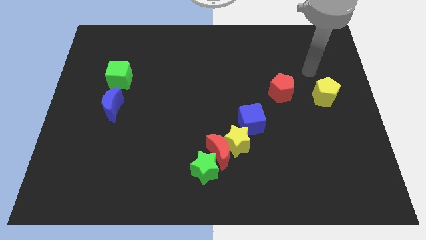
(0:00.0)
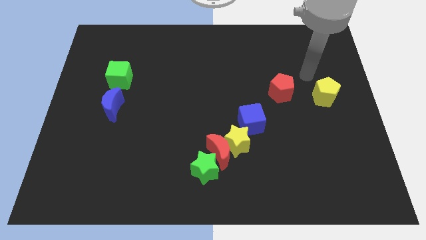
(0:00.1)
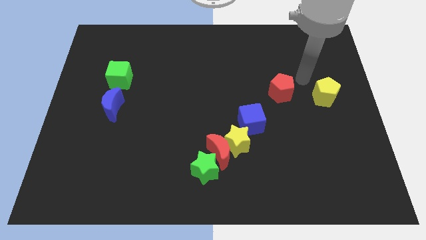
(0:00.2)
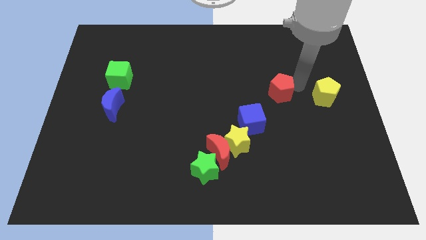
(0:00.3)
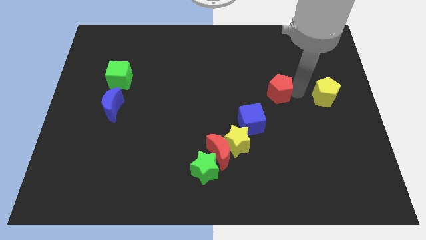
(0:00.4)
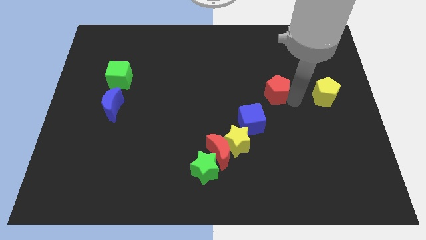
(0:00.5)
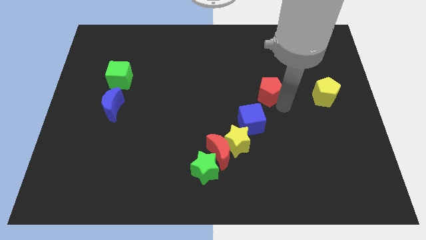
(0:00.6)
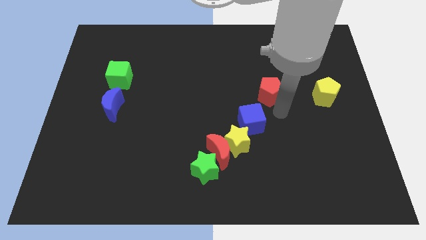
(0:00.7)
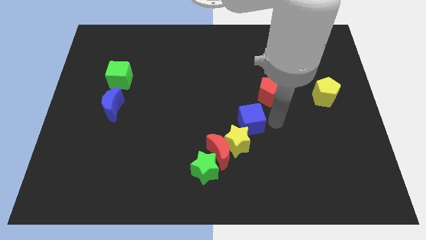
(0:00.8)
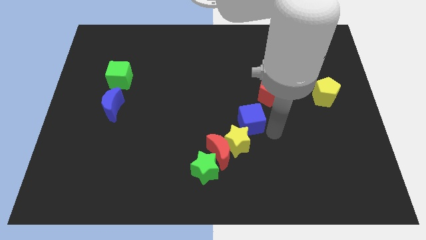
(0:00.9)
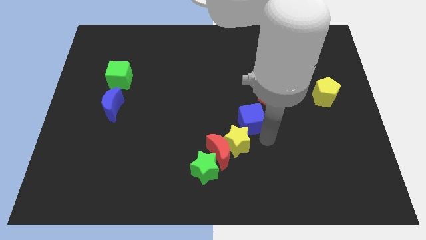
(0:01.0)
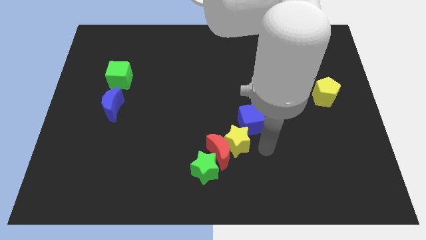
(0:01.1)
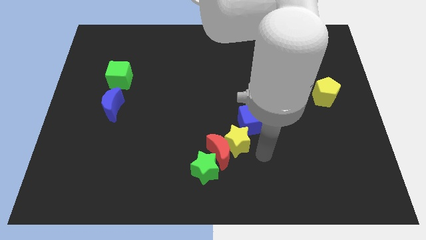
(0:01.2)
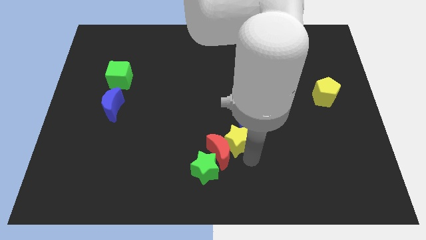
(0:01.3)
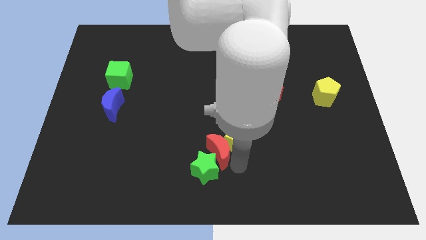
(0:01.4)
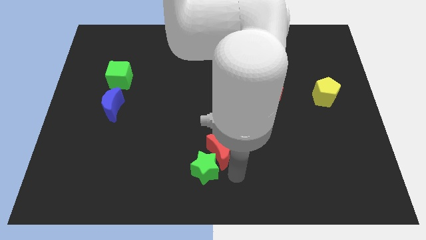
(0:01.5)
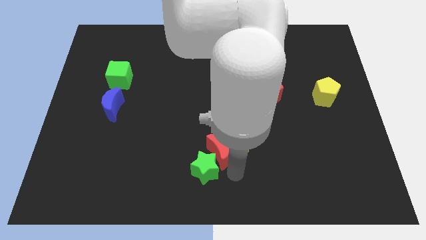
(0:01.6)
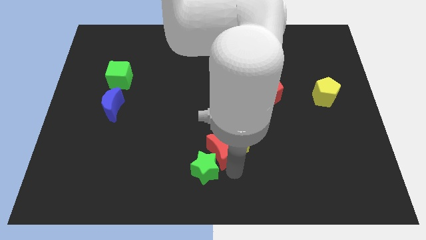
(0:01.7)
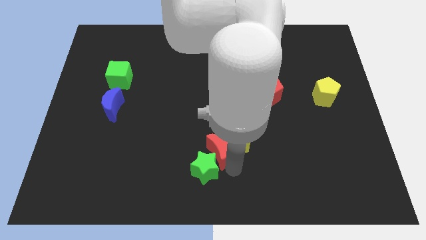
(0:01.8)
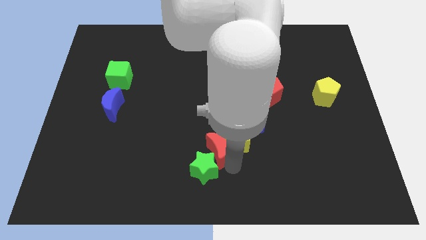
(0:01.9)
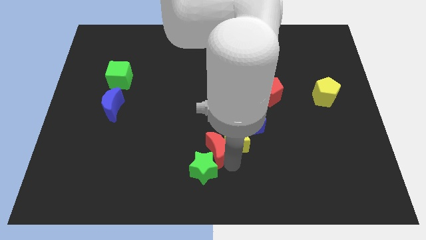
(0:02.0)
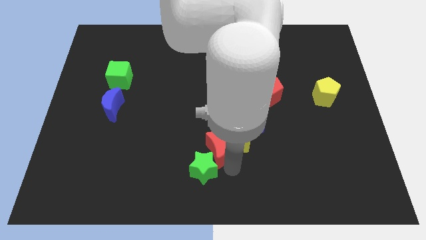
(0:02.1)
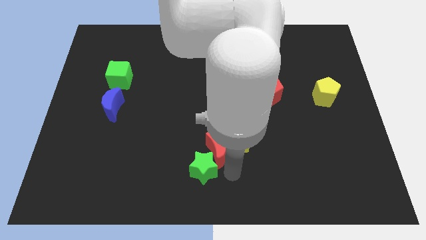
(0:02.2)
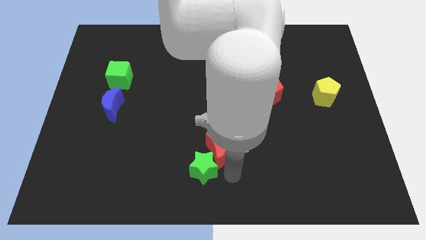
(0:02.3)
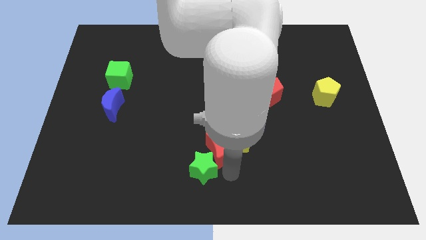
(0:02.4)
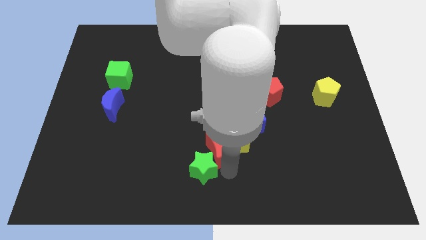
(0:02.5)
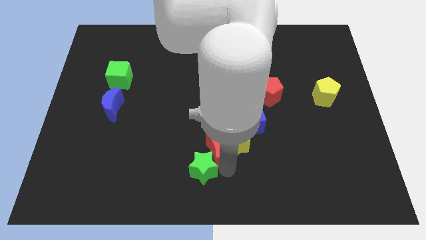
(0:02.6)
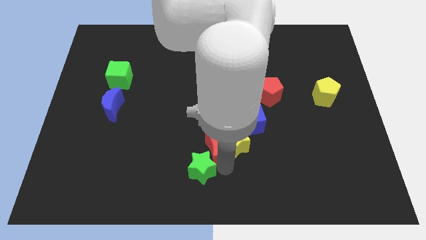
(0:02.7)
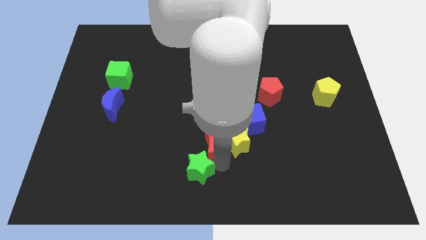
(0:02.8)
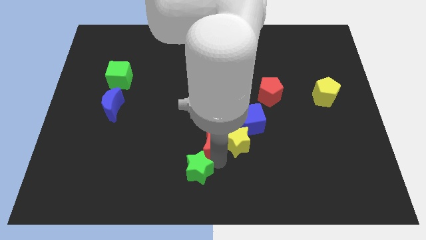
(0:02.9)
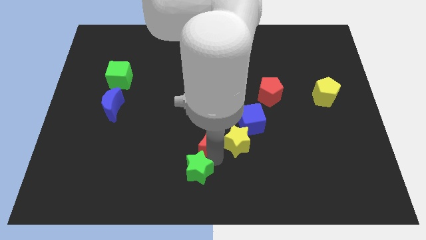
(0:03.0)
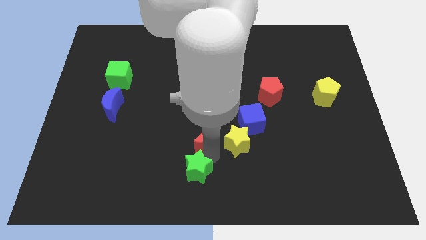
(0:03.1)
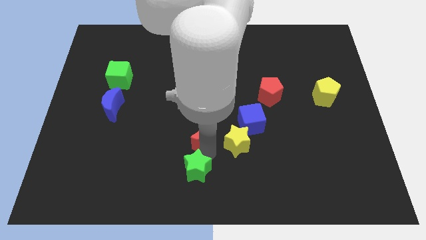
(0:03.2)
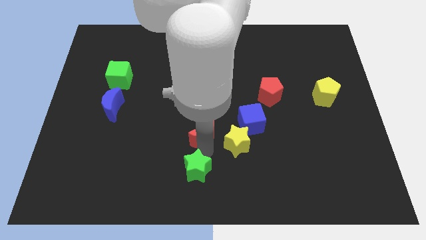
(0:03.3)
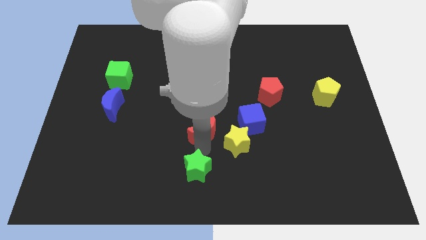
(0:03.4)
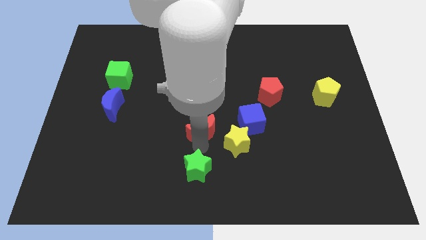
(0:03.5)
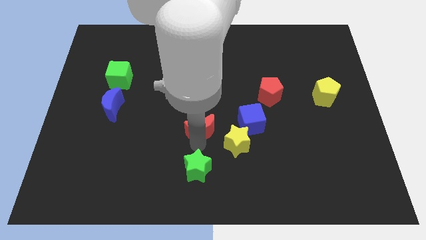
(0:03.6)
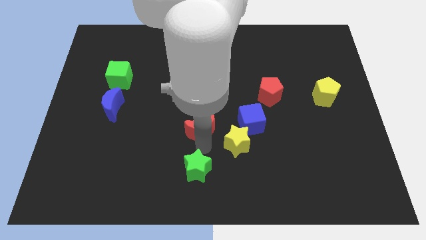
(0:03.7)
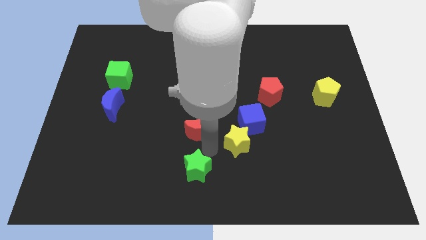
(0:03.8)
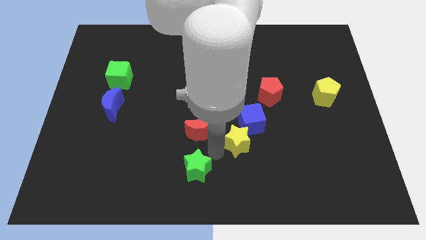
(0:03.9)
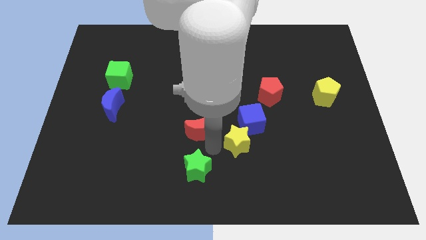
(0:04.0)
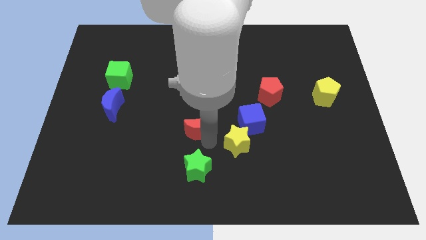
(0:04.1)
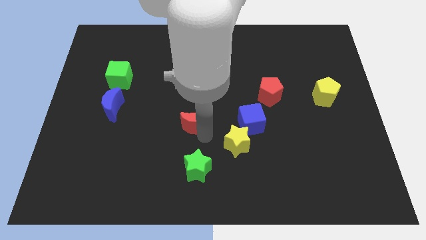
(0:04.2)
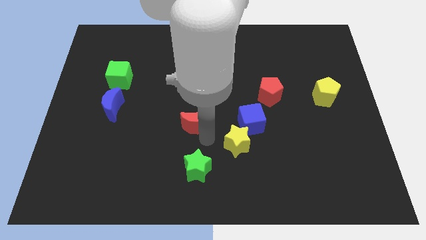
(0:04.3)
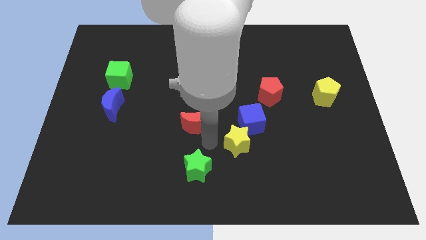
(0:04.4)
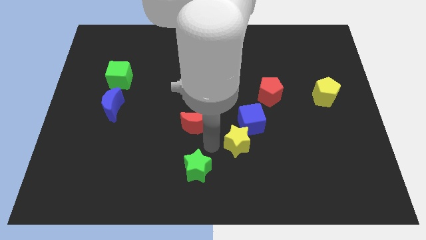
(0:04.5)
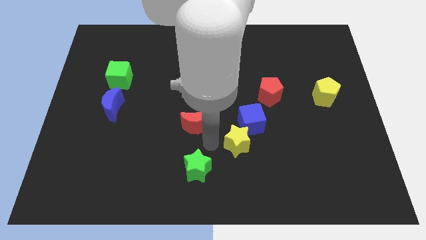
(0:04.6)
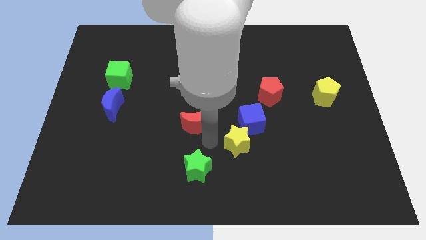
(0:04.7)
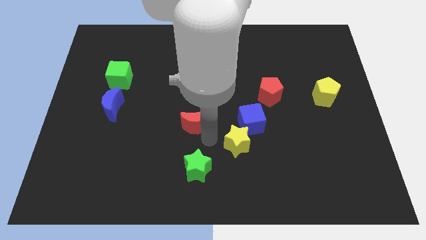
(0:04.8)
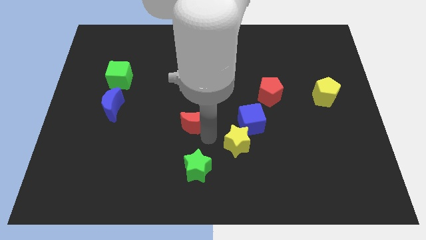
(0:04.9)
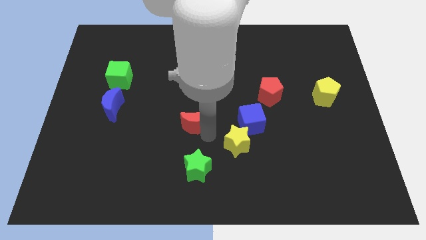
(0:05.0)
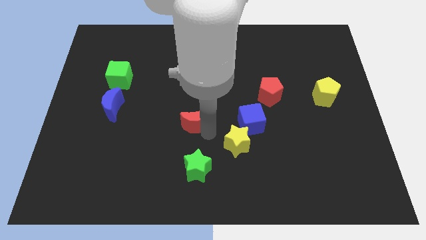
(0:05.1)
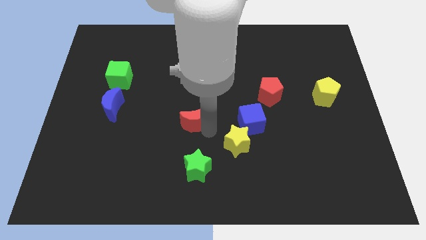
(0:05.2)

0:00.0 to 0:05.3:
pull the red moon apart from the yellow star and green star

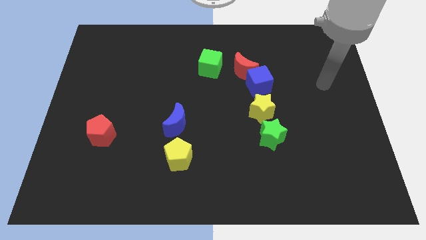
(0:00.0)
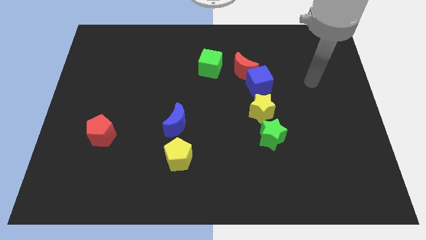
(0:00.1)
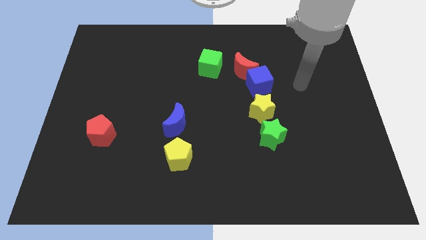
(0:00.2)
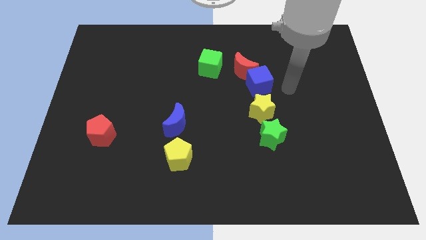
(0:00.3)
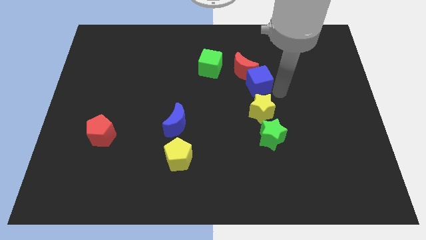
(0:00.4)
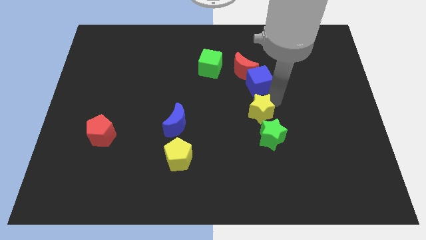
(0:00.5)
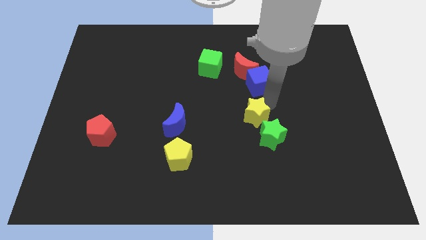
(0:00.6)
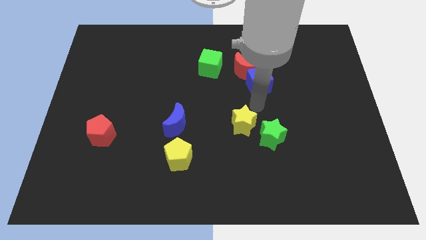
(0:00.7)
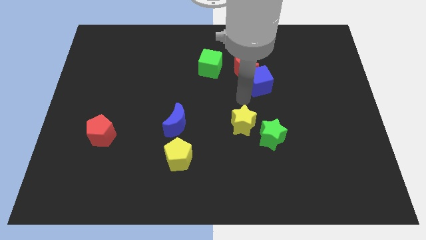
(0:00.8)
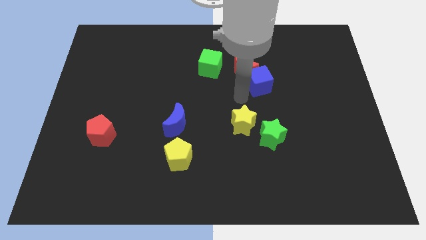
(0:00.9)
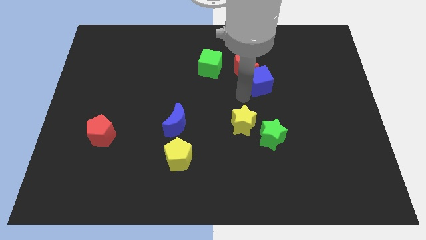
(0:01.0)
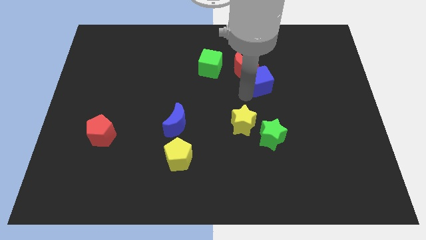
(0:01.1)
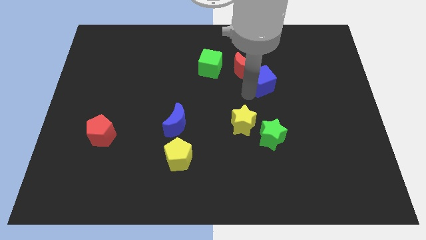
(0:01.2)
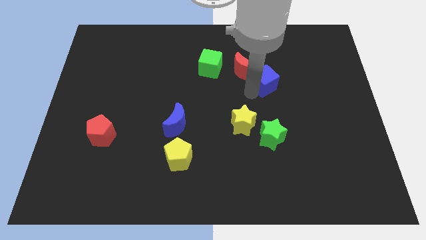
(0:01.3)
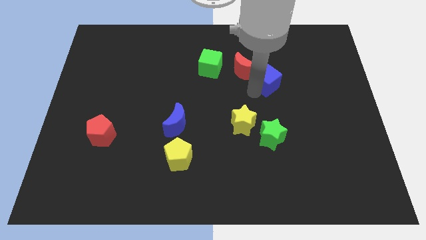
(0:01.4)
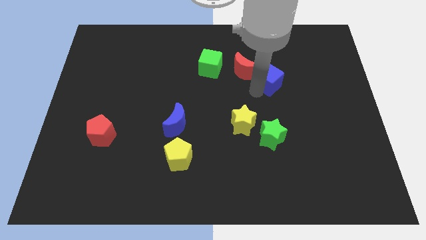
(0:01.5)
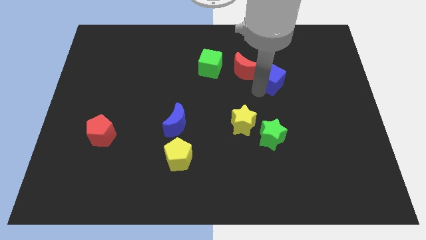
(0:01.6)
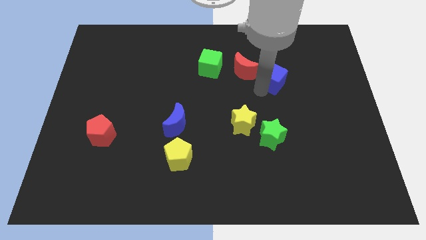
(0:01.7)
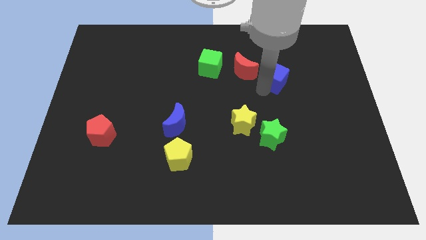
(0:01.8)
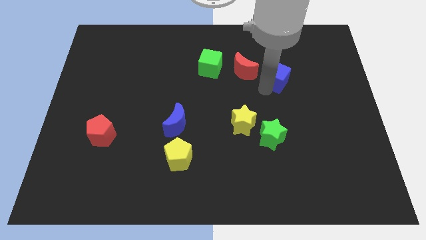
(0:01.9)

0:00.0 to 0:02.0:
move the blue cube away from the red moon and yellow star

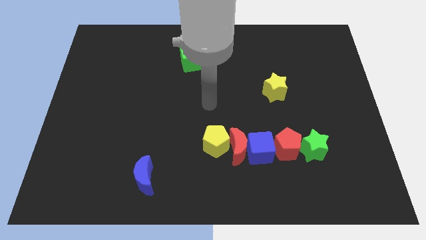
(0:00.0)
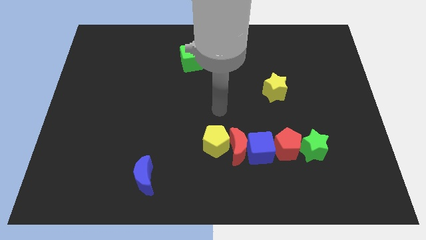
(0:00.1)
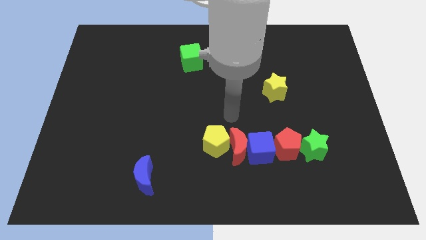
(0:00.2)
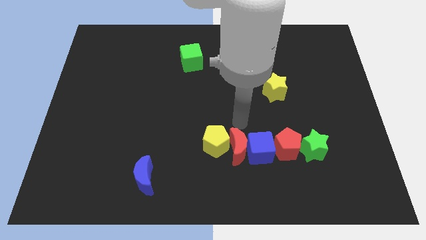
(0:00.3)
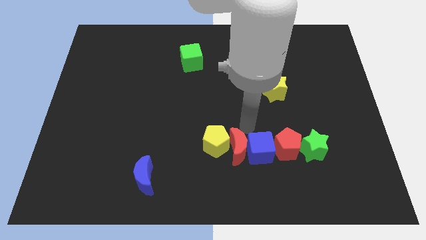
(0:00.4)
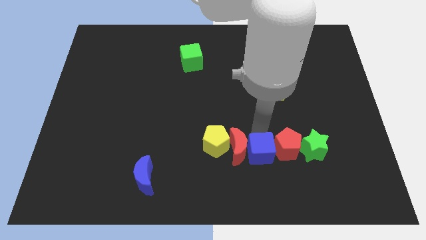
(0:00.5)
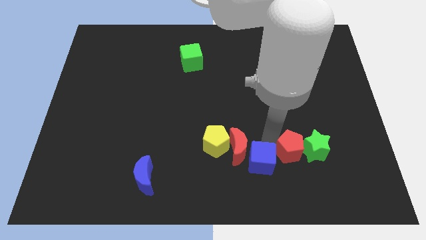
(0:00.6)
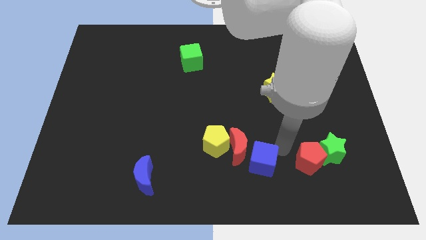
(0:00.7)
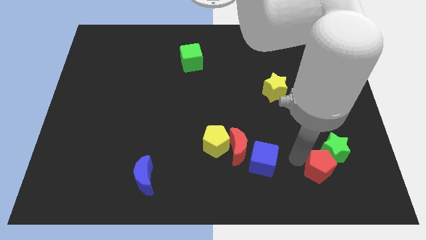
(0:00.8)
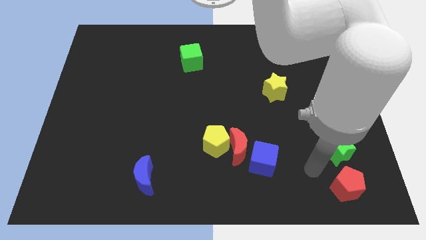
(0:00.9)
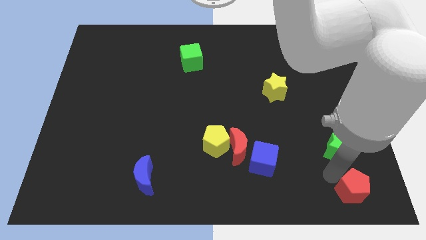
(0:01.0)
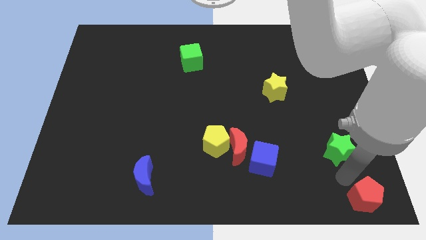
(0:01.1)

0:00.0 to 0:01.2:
move the green star away from the red pentagon

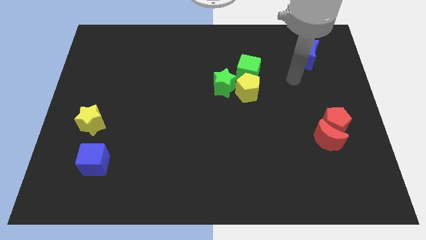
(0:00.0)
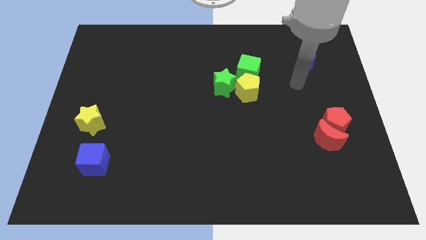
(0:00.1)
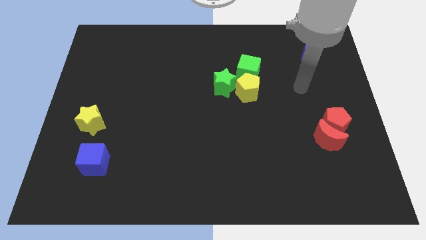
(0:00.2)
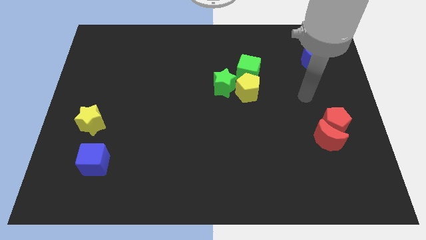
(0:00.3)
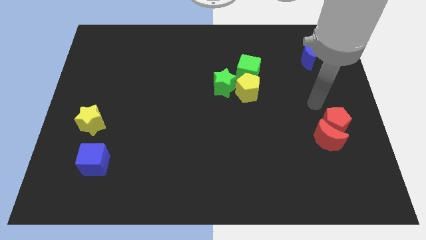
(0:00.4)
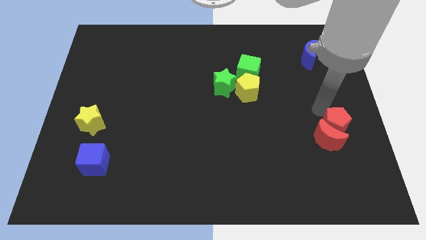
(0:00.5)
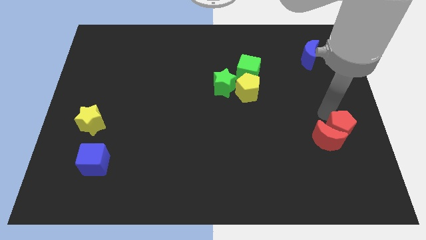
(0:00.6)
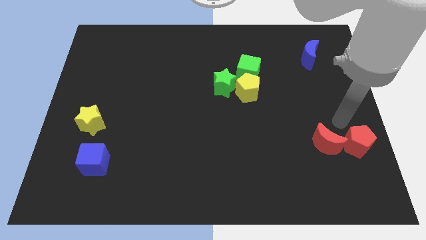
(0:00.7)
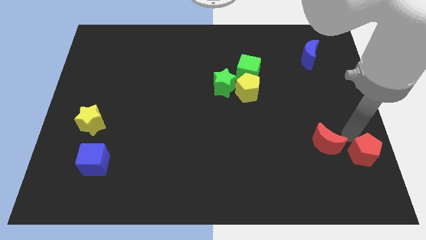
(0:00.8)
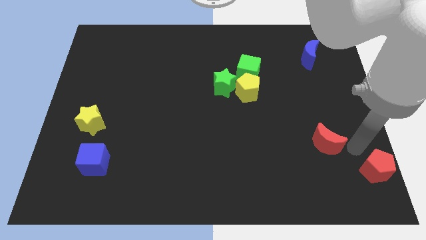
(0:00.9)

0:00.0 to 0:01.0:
separate the red moon from the red pentagon

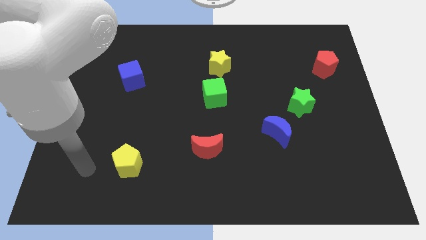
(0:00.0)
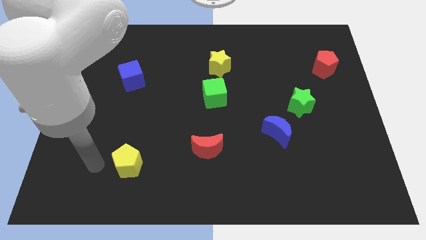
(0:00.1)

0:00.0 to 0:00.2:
move the blue moon away from the green star
